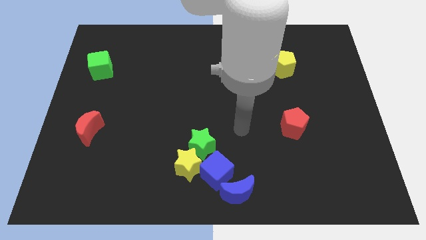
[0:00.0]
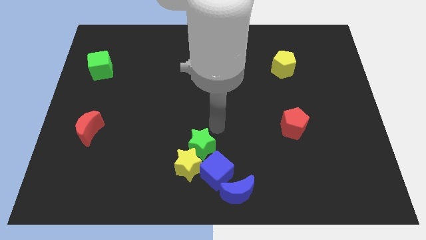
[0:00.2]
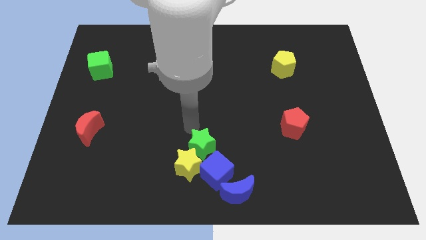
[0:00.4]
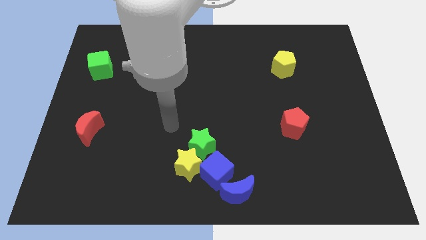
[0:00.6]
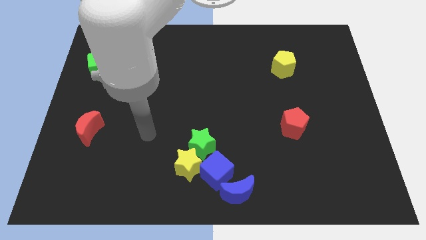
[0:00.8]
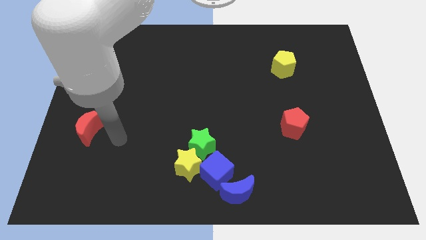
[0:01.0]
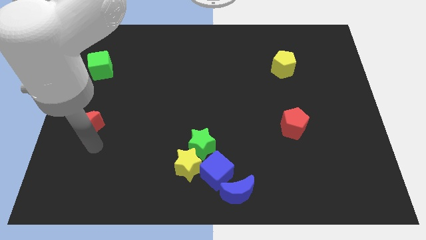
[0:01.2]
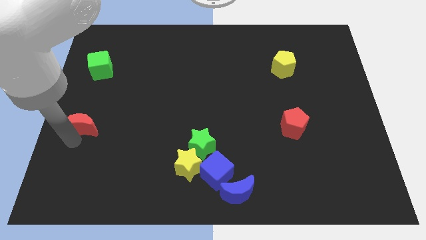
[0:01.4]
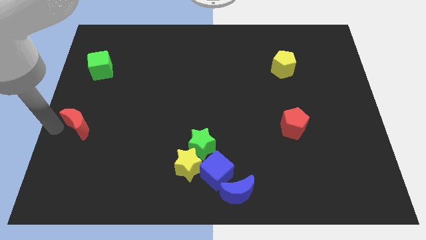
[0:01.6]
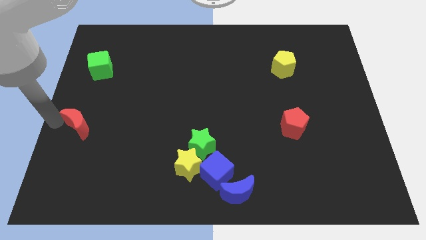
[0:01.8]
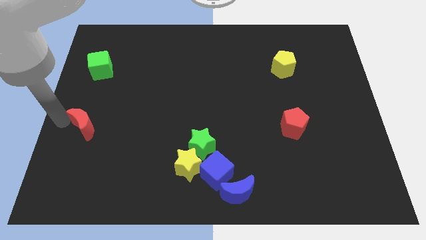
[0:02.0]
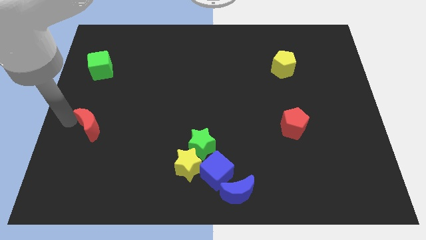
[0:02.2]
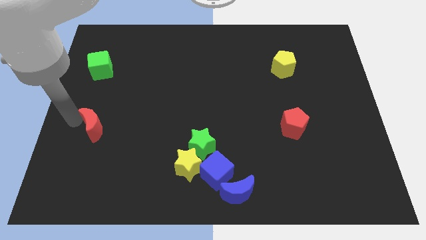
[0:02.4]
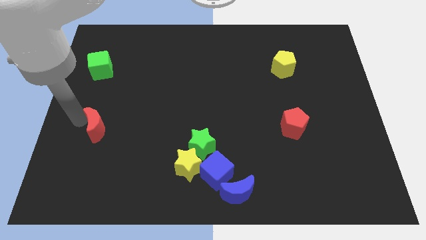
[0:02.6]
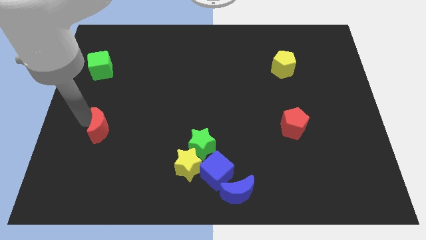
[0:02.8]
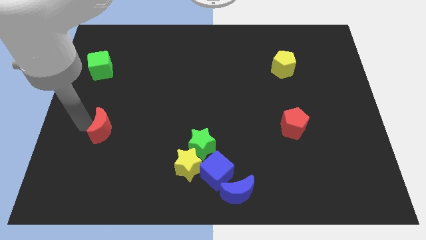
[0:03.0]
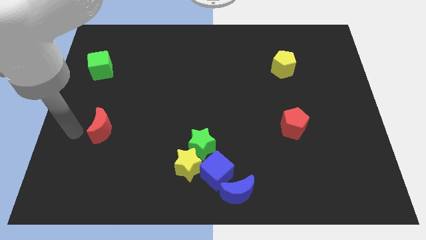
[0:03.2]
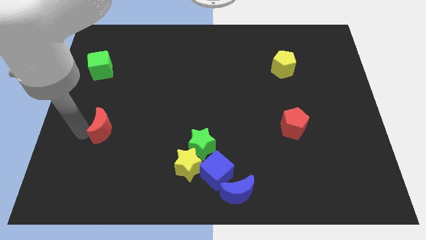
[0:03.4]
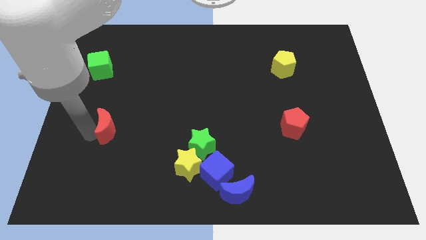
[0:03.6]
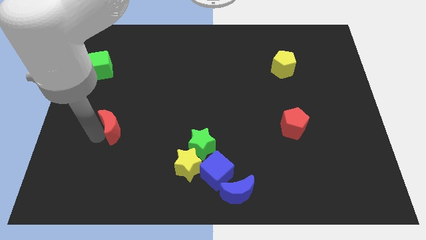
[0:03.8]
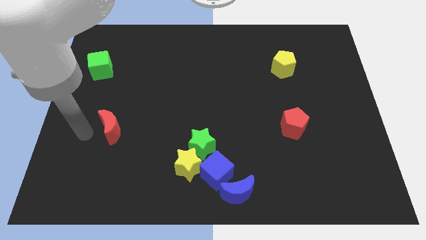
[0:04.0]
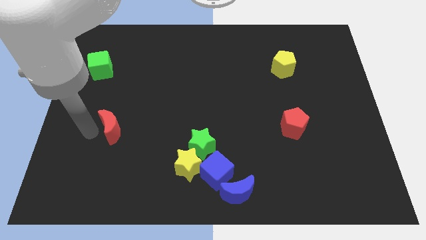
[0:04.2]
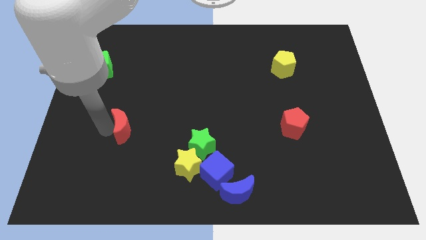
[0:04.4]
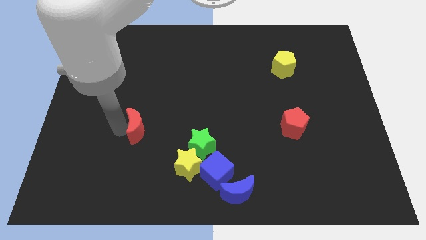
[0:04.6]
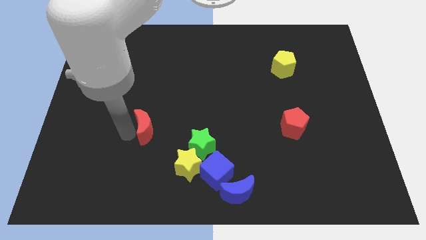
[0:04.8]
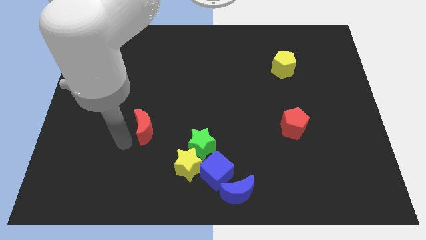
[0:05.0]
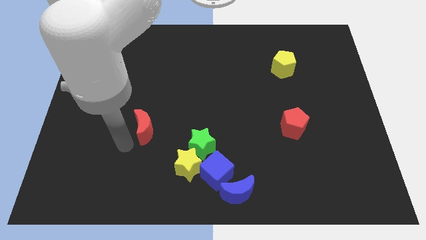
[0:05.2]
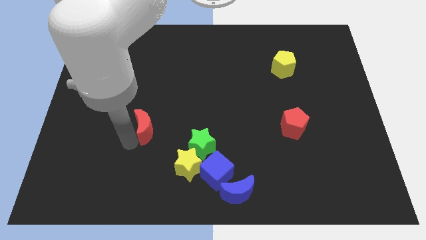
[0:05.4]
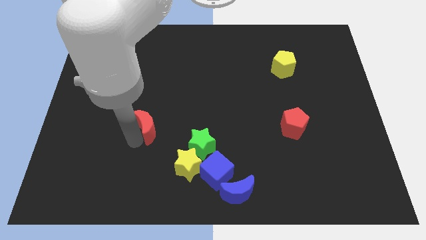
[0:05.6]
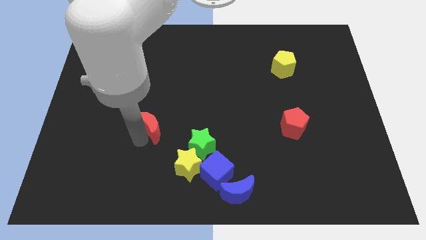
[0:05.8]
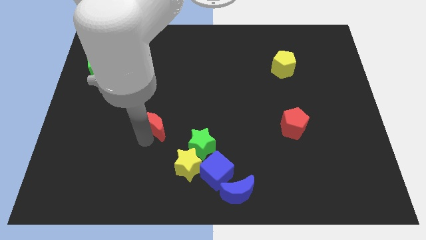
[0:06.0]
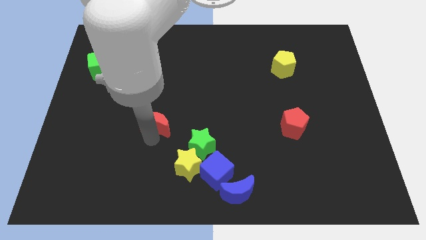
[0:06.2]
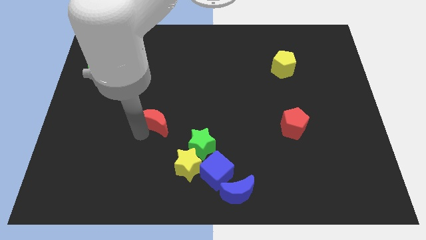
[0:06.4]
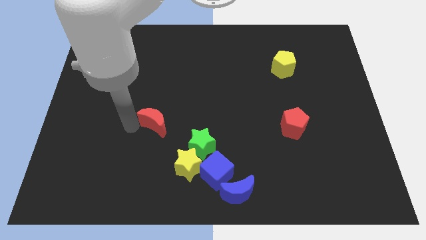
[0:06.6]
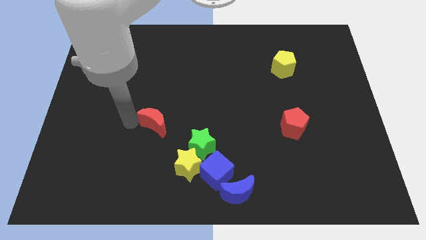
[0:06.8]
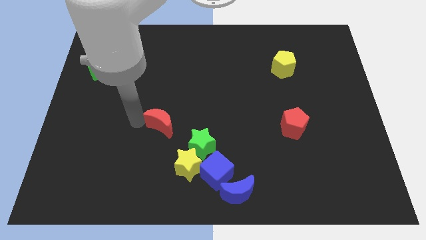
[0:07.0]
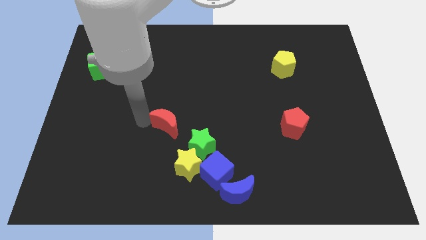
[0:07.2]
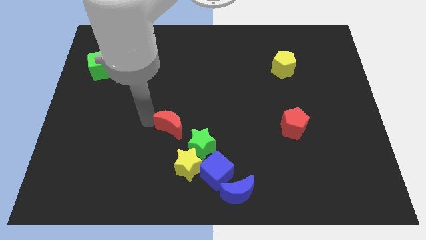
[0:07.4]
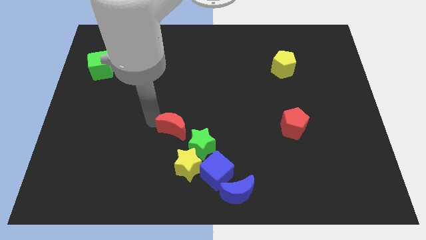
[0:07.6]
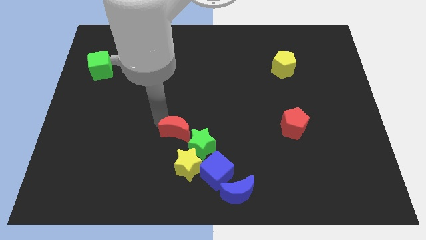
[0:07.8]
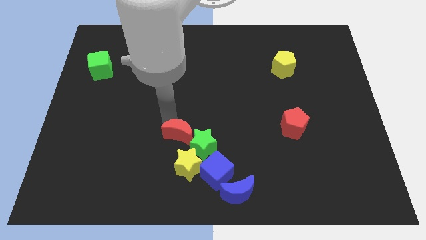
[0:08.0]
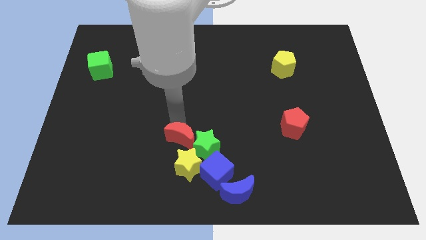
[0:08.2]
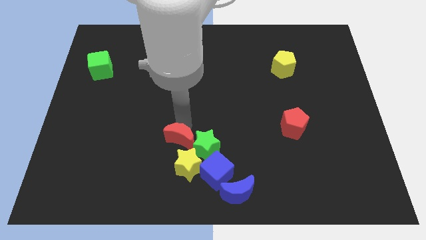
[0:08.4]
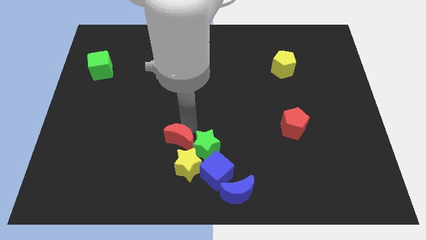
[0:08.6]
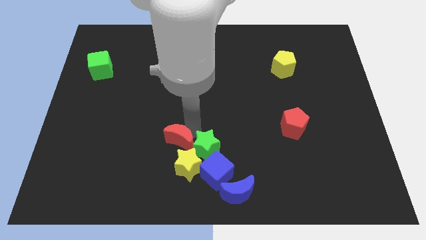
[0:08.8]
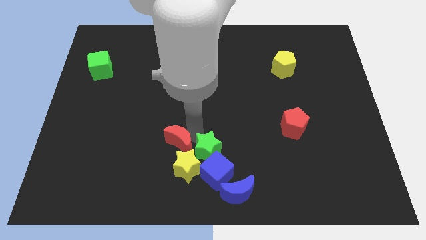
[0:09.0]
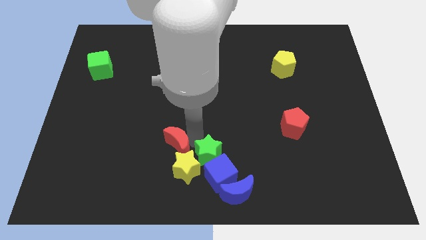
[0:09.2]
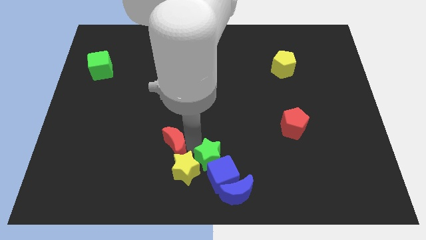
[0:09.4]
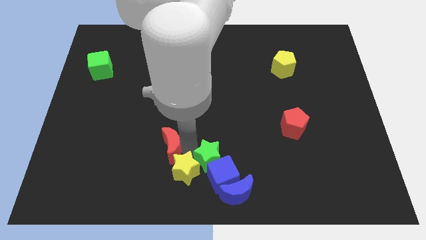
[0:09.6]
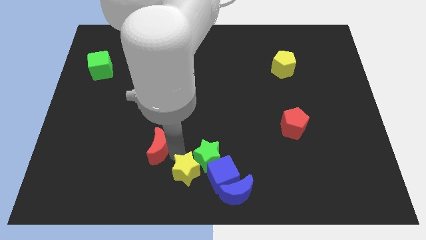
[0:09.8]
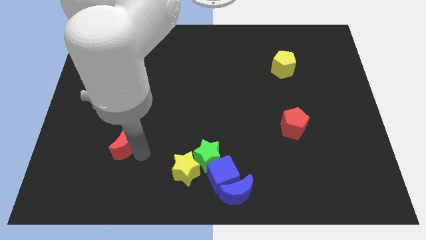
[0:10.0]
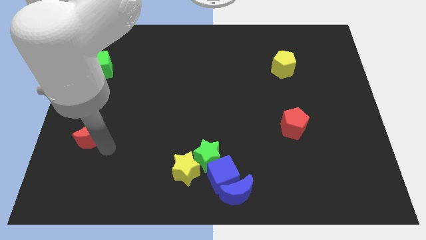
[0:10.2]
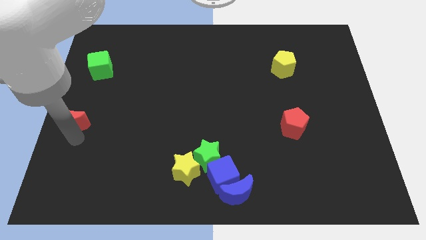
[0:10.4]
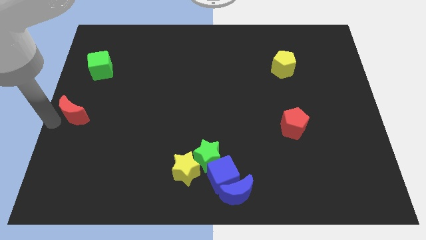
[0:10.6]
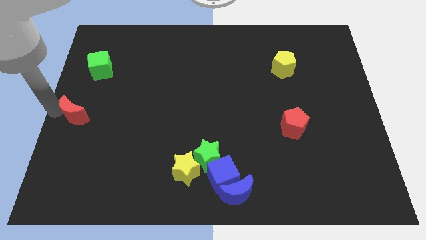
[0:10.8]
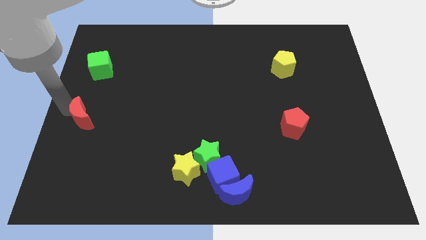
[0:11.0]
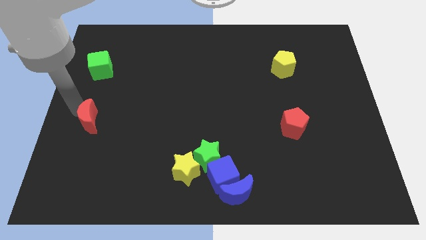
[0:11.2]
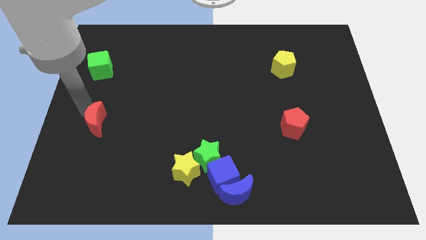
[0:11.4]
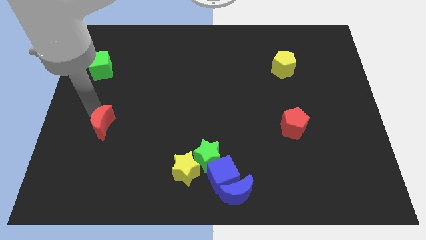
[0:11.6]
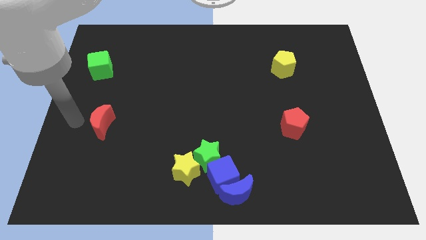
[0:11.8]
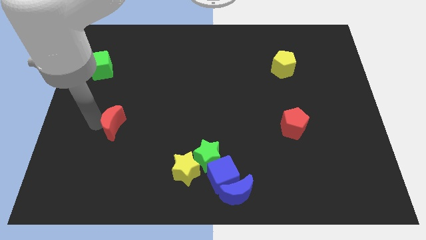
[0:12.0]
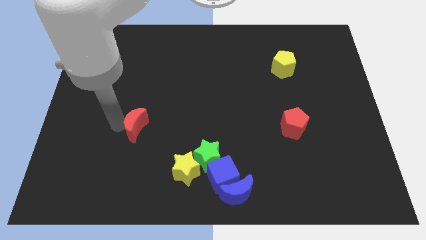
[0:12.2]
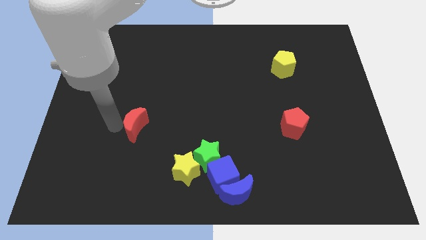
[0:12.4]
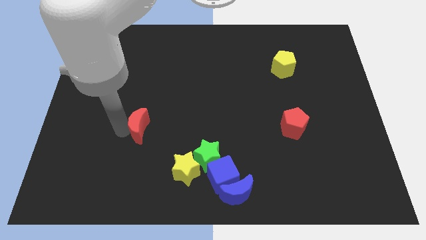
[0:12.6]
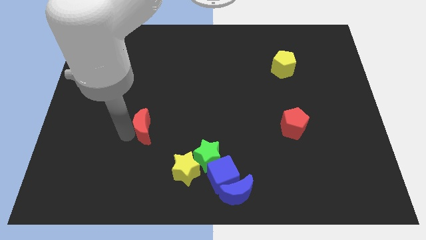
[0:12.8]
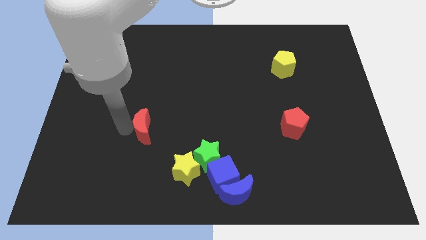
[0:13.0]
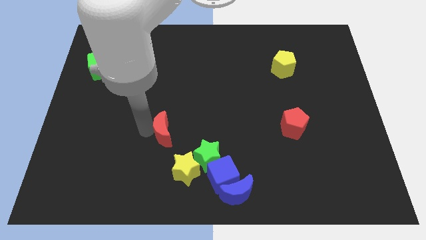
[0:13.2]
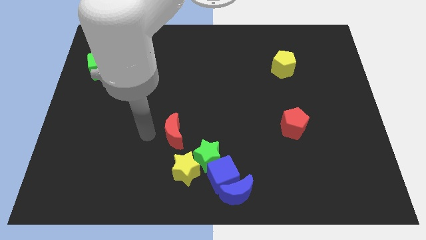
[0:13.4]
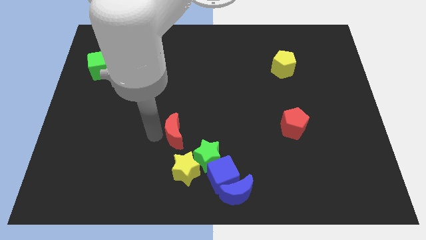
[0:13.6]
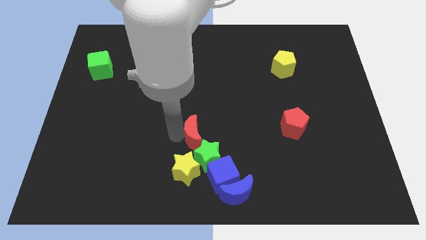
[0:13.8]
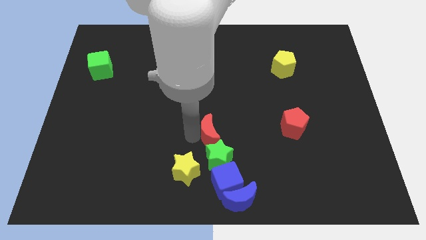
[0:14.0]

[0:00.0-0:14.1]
move the red moon to the top of the blue cube

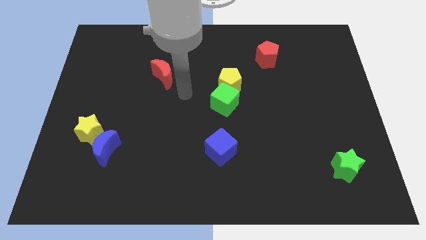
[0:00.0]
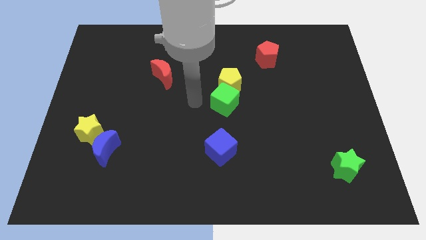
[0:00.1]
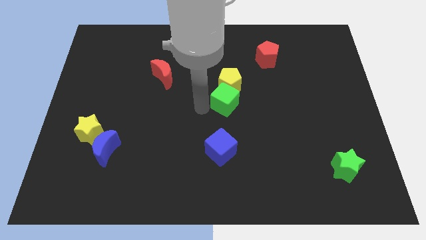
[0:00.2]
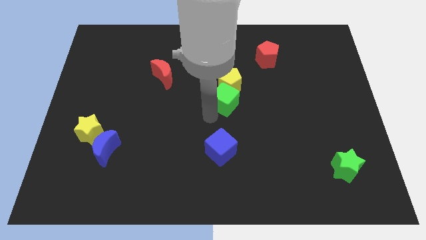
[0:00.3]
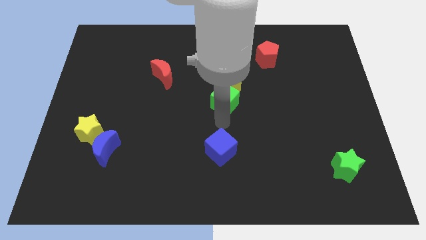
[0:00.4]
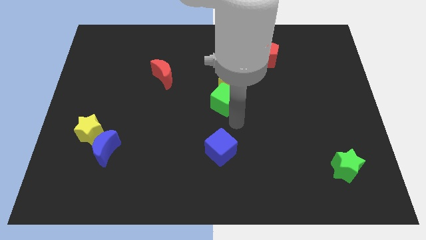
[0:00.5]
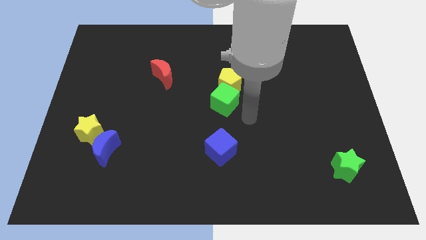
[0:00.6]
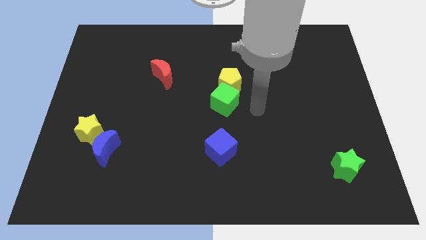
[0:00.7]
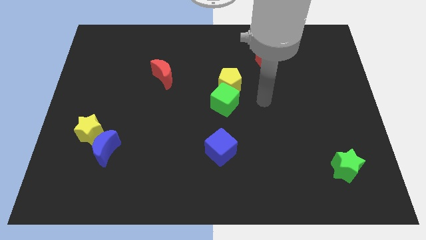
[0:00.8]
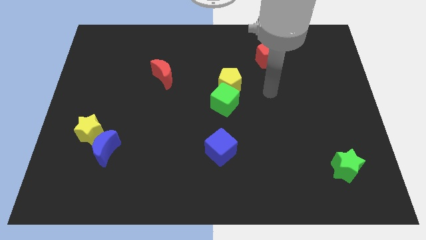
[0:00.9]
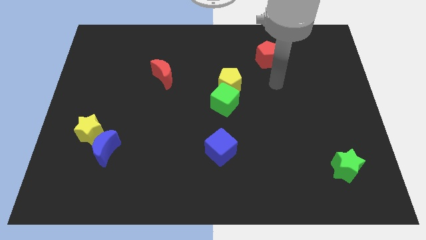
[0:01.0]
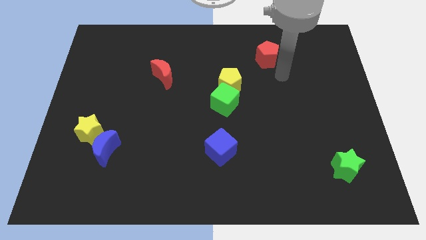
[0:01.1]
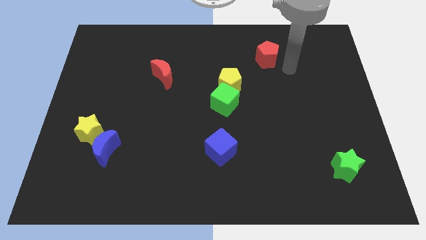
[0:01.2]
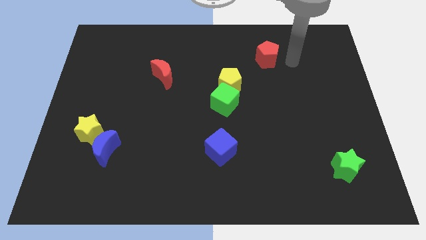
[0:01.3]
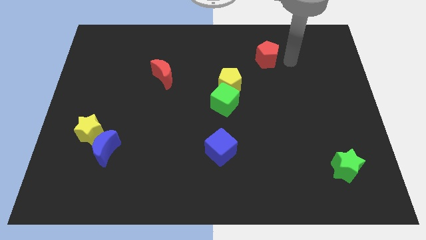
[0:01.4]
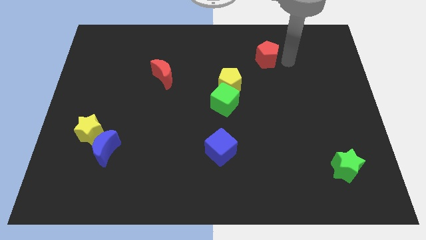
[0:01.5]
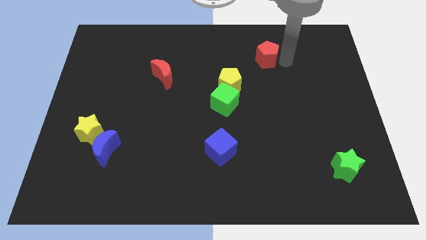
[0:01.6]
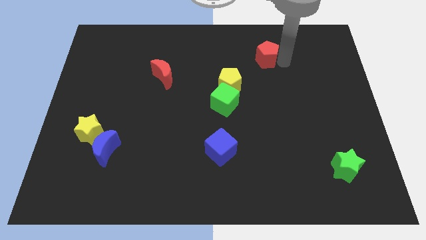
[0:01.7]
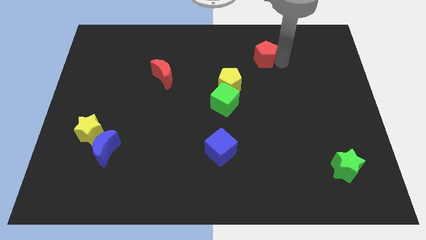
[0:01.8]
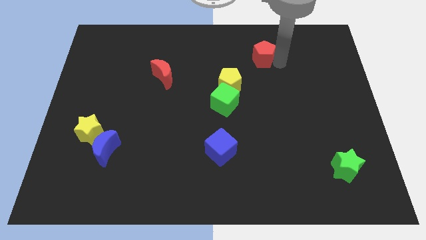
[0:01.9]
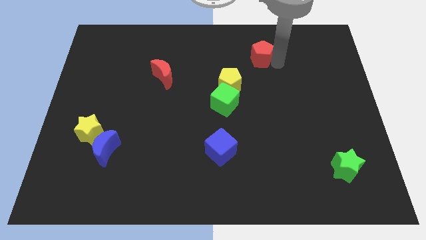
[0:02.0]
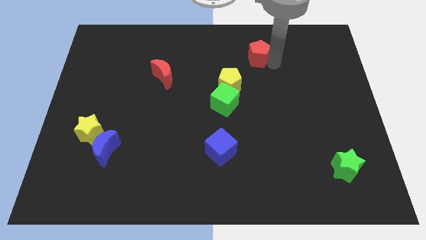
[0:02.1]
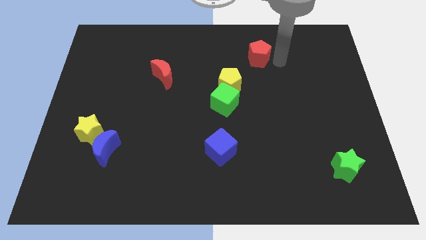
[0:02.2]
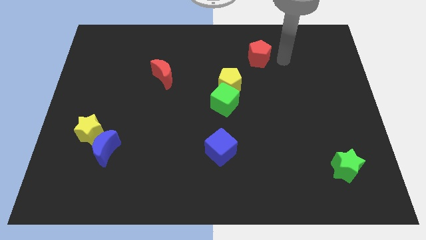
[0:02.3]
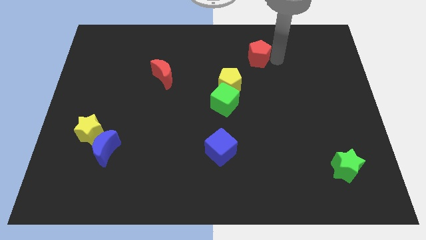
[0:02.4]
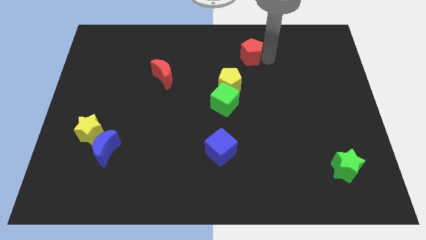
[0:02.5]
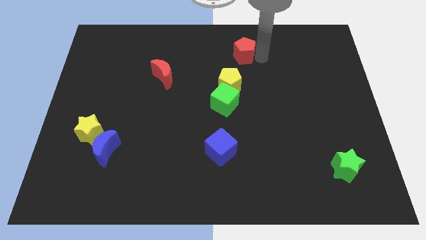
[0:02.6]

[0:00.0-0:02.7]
put the red pentagon to the top of the yellow pentagon
